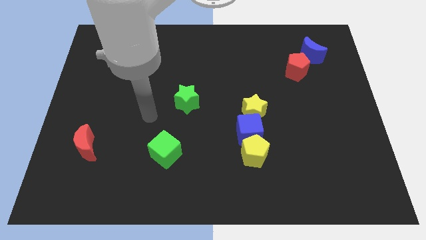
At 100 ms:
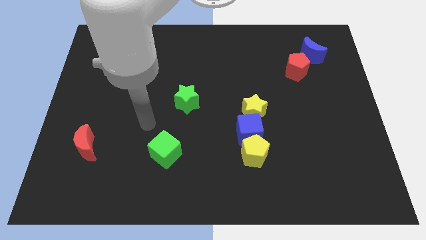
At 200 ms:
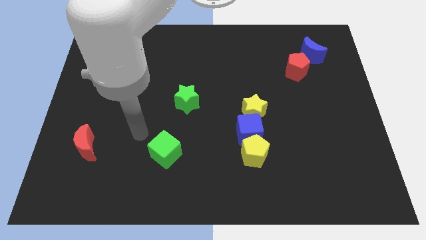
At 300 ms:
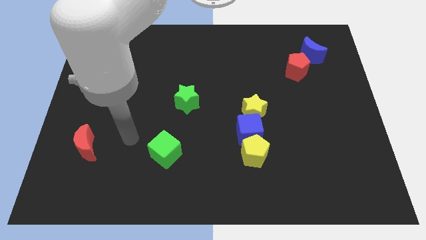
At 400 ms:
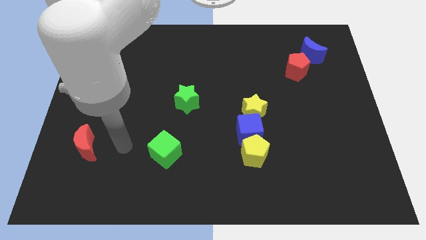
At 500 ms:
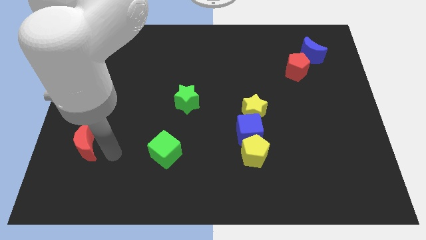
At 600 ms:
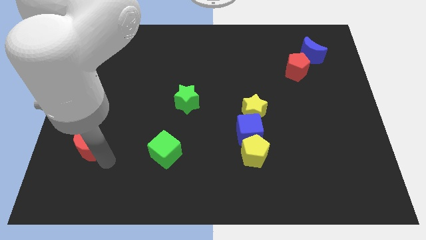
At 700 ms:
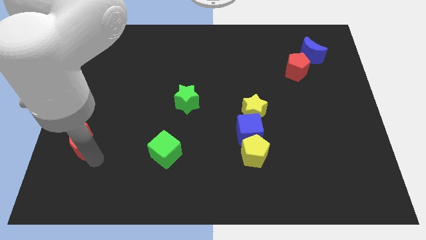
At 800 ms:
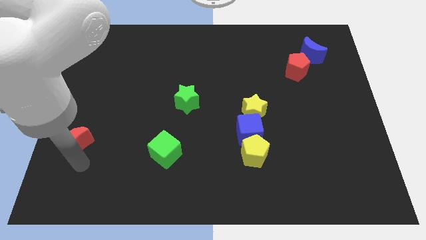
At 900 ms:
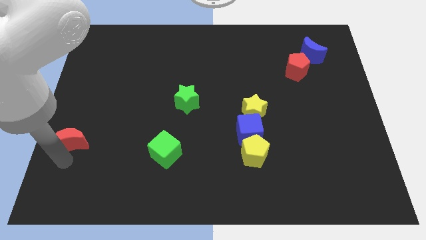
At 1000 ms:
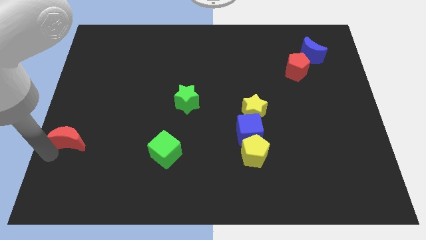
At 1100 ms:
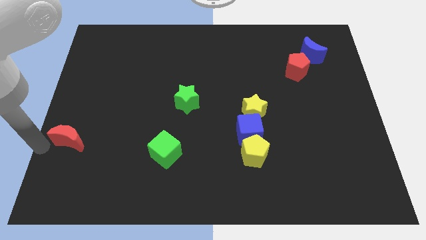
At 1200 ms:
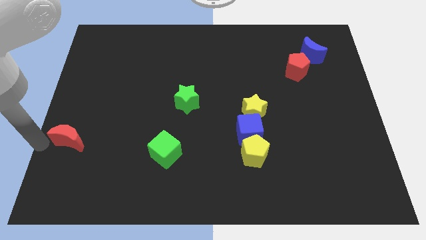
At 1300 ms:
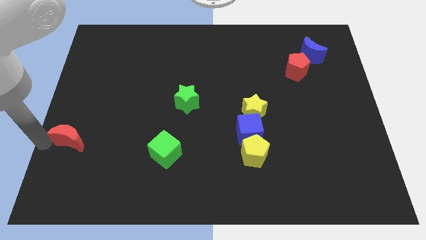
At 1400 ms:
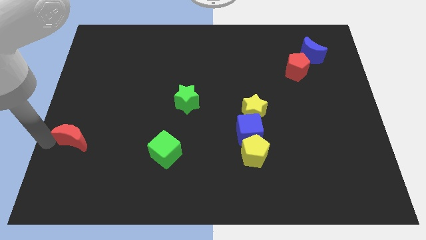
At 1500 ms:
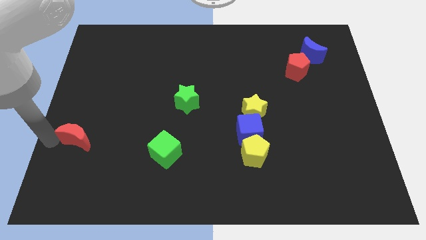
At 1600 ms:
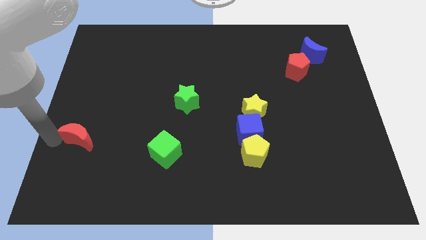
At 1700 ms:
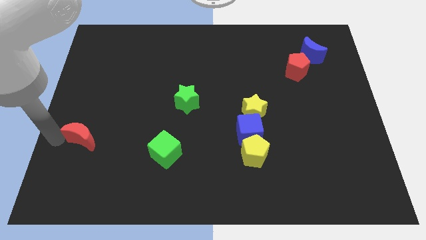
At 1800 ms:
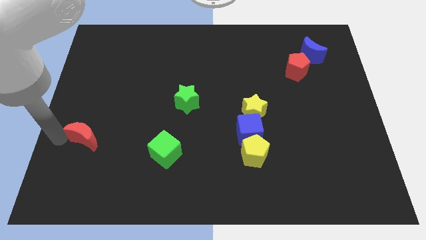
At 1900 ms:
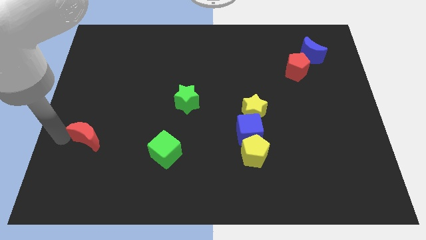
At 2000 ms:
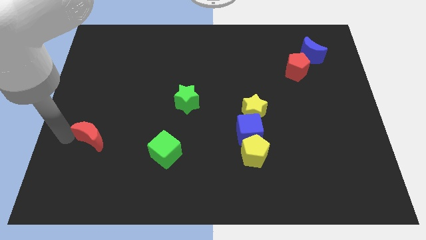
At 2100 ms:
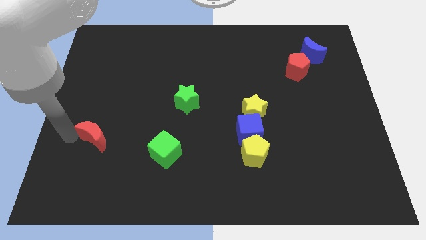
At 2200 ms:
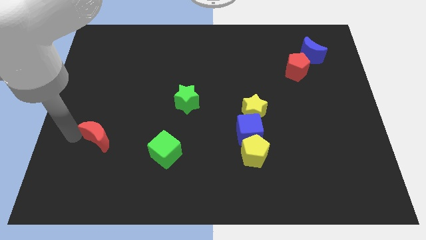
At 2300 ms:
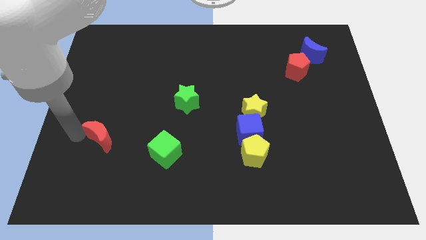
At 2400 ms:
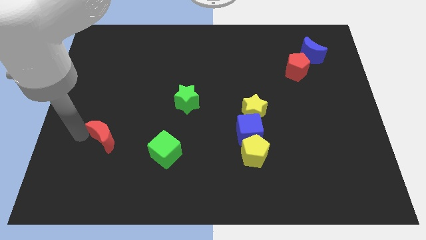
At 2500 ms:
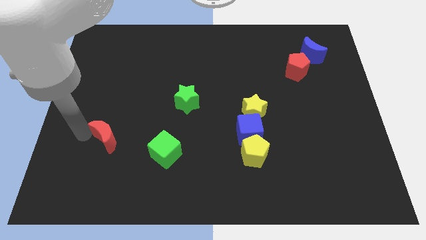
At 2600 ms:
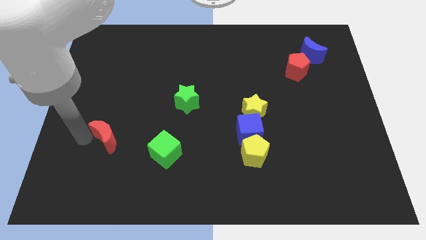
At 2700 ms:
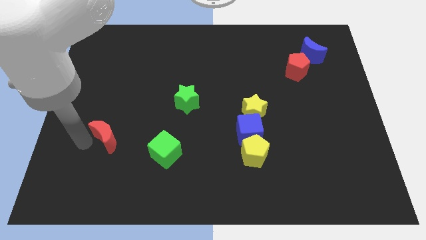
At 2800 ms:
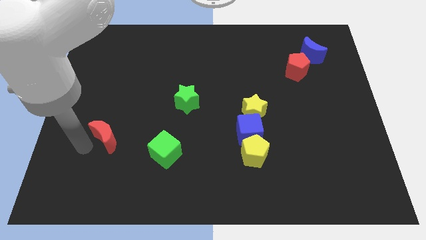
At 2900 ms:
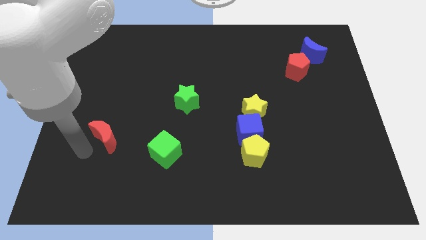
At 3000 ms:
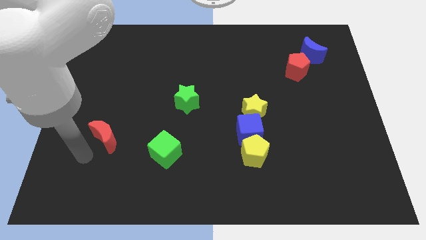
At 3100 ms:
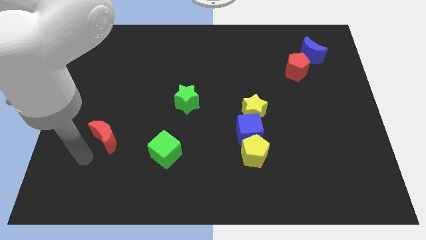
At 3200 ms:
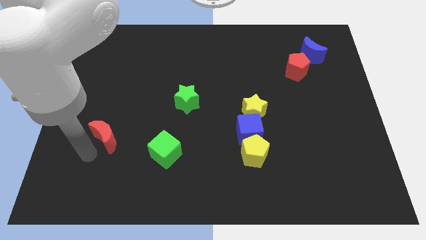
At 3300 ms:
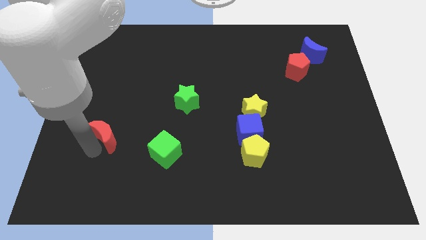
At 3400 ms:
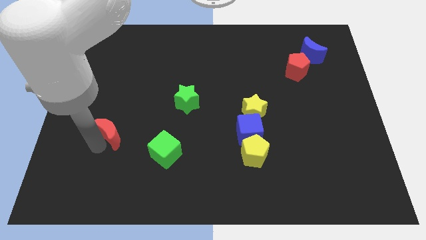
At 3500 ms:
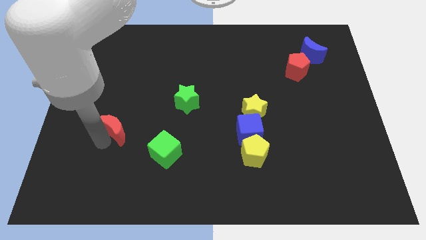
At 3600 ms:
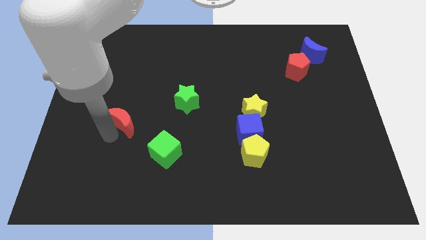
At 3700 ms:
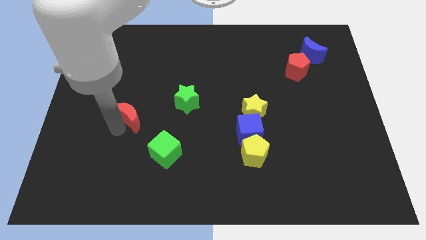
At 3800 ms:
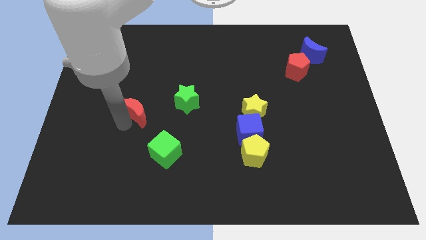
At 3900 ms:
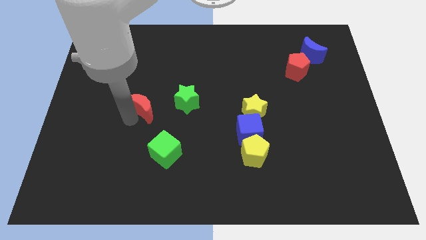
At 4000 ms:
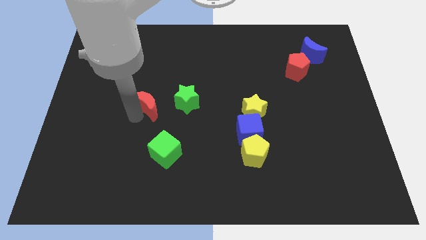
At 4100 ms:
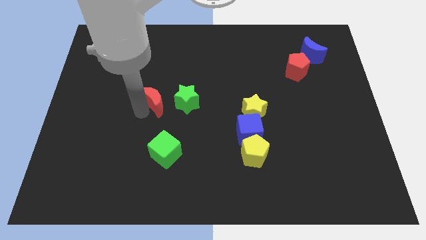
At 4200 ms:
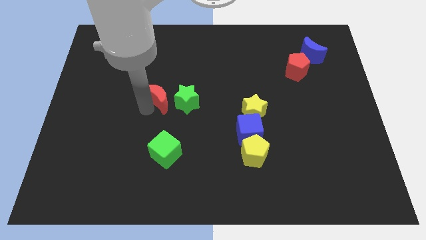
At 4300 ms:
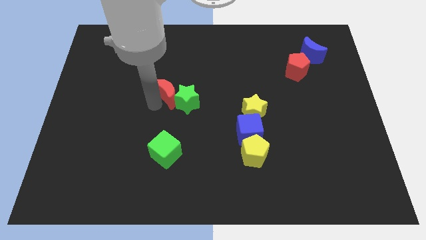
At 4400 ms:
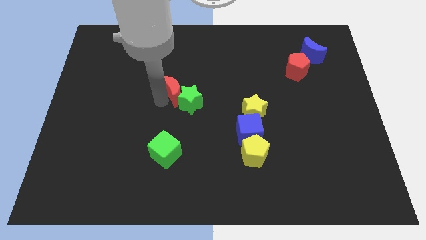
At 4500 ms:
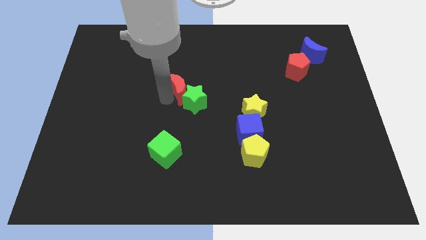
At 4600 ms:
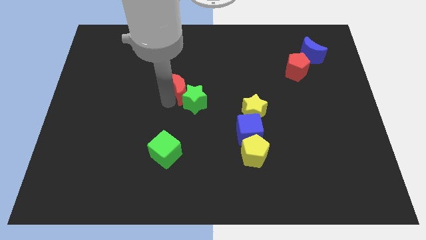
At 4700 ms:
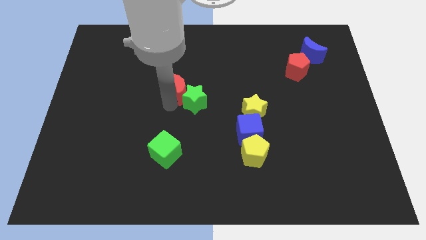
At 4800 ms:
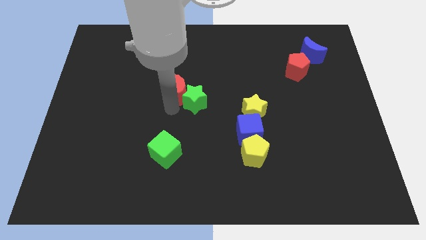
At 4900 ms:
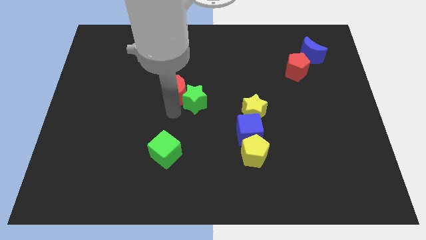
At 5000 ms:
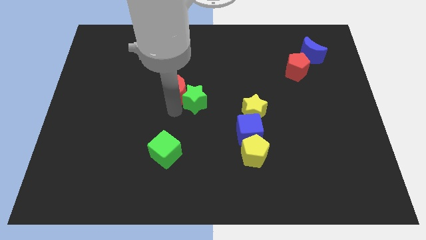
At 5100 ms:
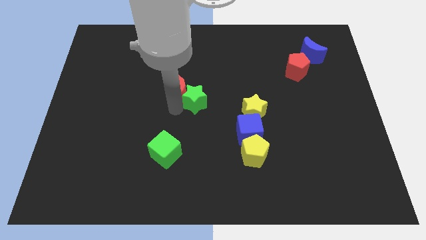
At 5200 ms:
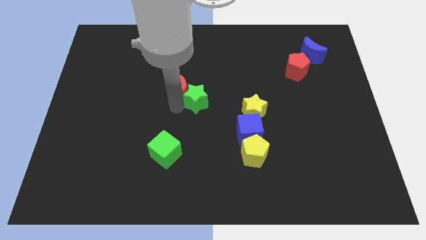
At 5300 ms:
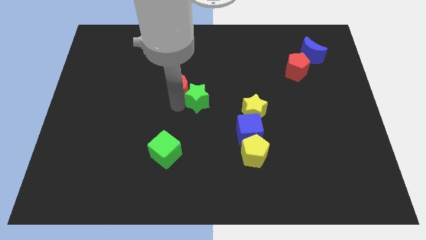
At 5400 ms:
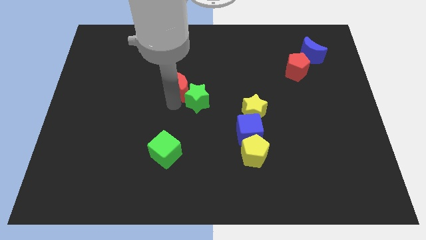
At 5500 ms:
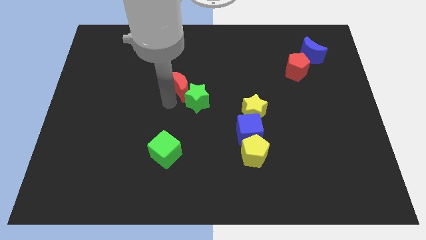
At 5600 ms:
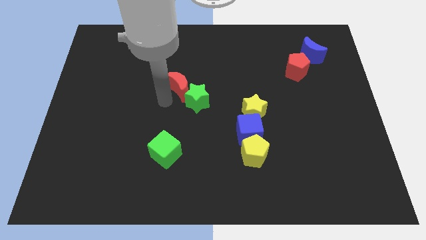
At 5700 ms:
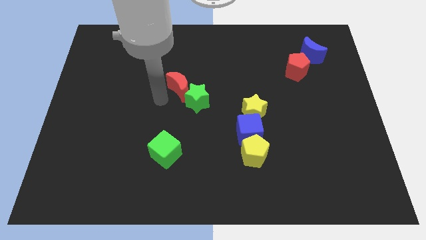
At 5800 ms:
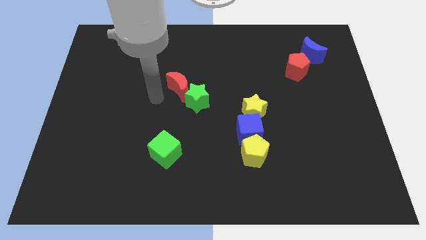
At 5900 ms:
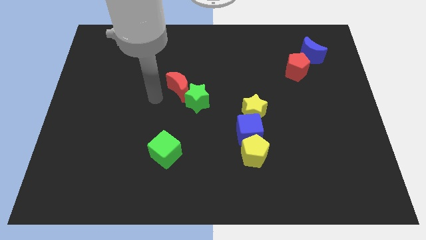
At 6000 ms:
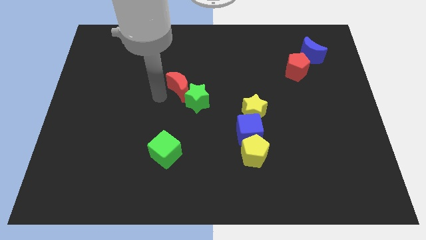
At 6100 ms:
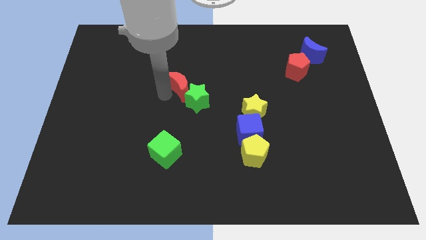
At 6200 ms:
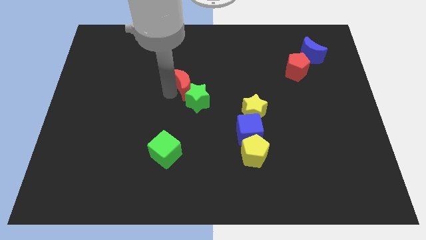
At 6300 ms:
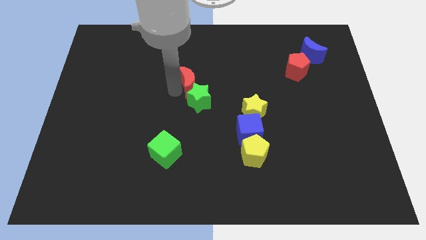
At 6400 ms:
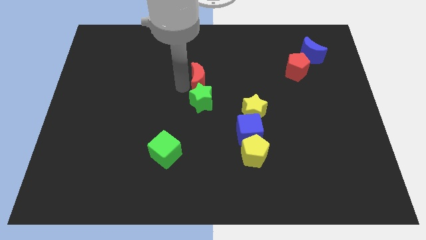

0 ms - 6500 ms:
put the red moon diagonally up and to the right of the green star

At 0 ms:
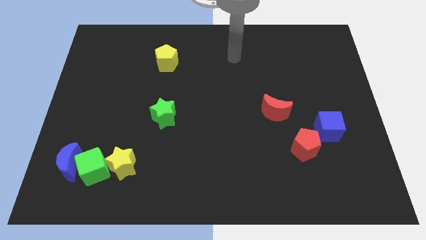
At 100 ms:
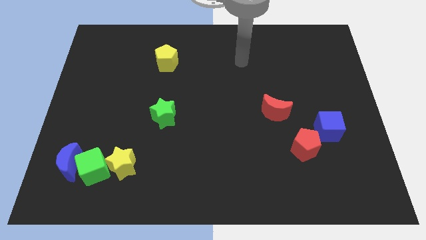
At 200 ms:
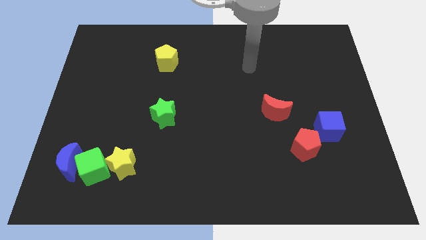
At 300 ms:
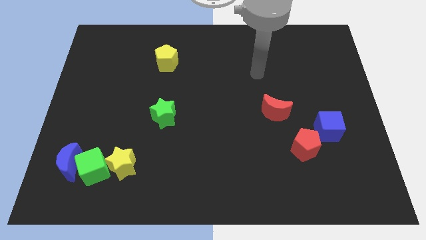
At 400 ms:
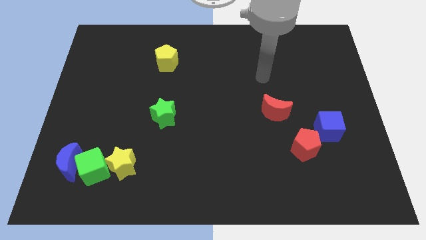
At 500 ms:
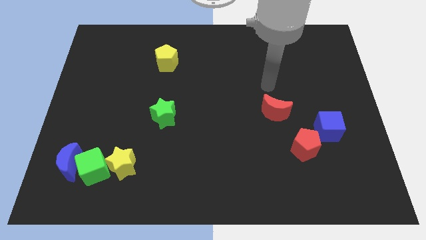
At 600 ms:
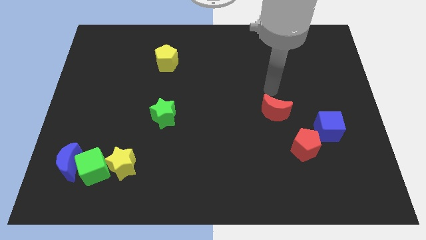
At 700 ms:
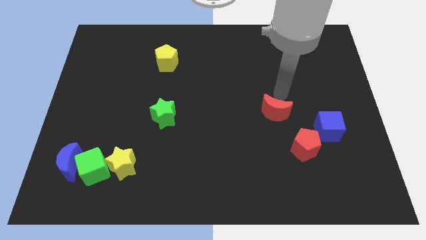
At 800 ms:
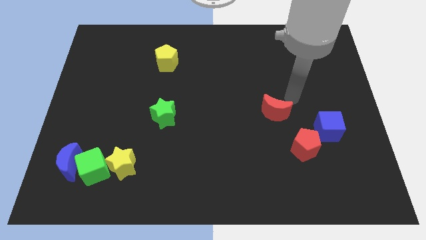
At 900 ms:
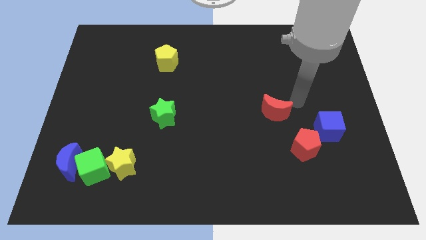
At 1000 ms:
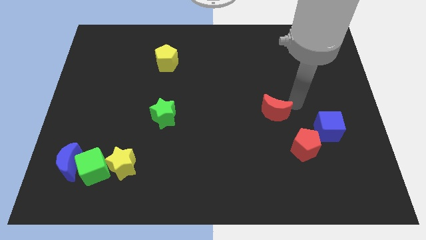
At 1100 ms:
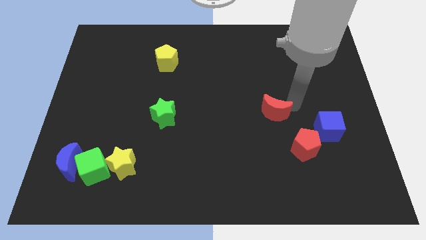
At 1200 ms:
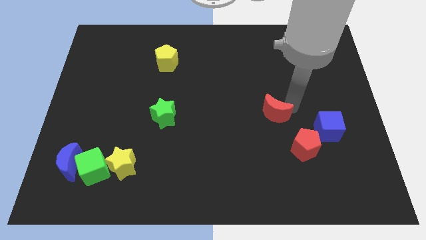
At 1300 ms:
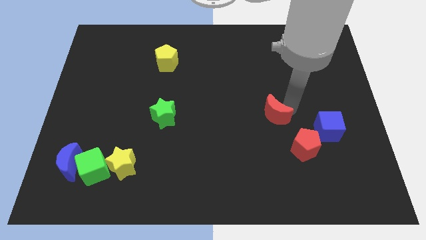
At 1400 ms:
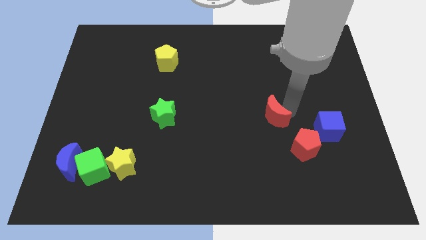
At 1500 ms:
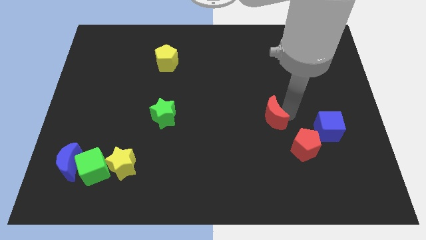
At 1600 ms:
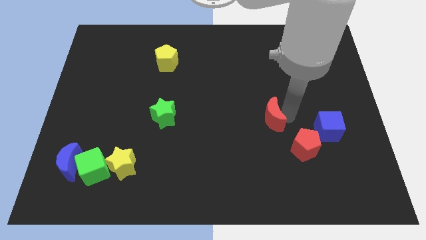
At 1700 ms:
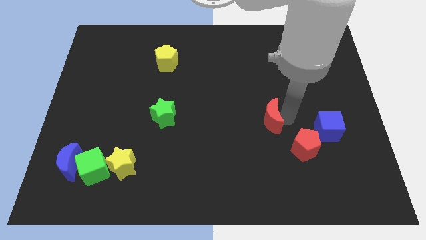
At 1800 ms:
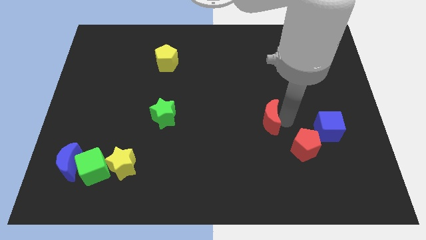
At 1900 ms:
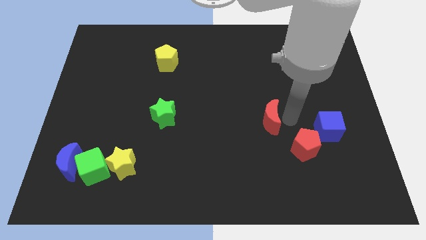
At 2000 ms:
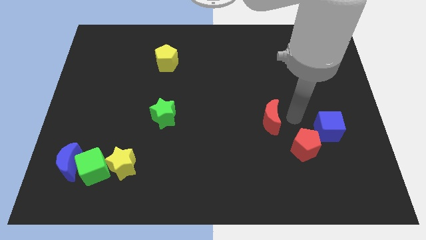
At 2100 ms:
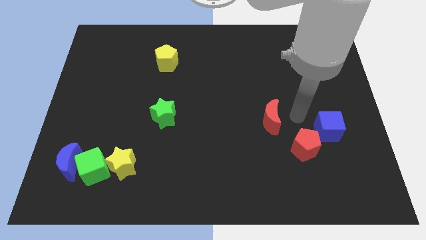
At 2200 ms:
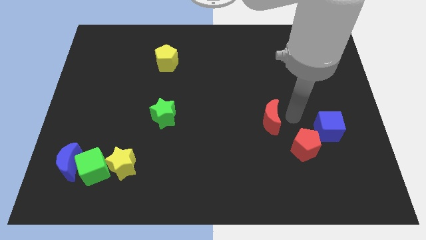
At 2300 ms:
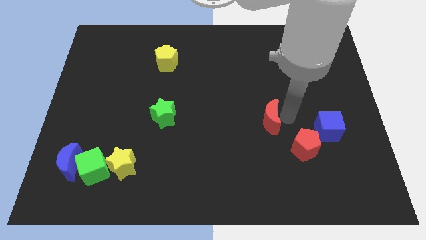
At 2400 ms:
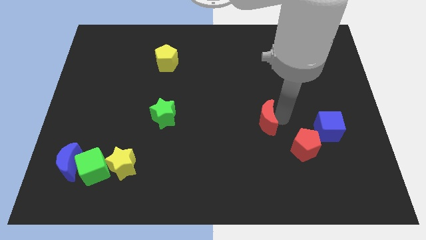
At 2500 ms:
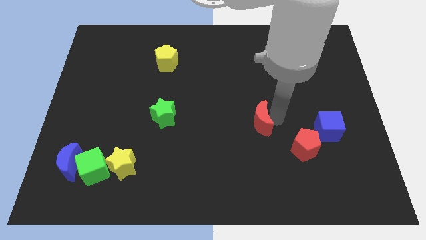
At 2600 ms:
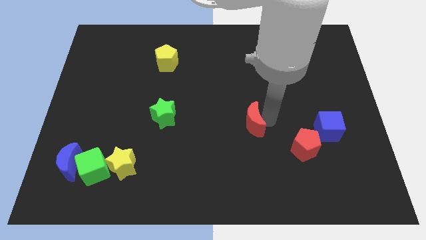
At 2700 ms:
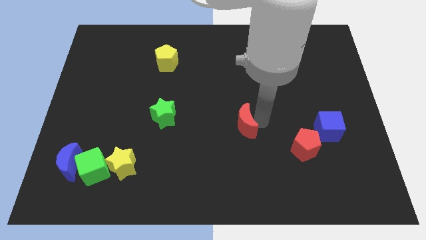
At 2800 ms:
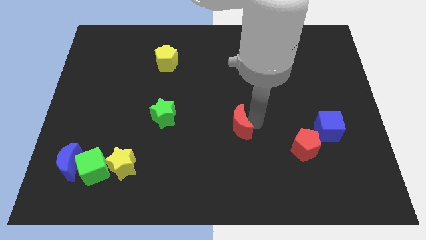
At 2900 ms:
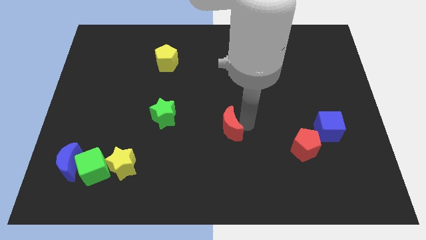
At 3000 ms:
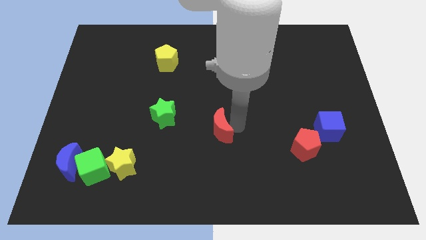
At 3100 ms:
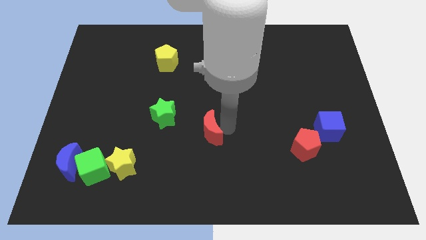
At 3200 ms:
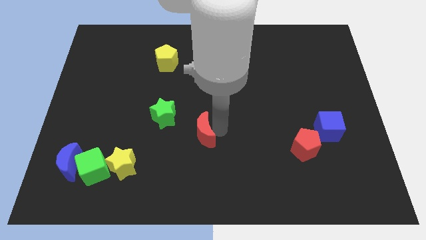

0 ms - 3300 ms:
put the red moon to the bottom right side of the green star
